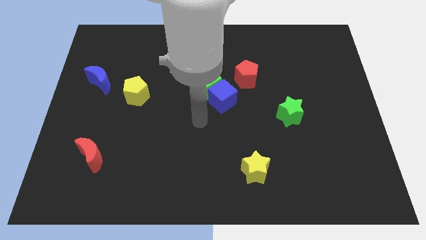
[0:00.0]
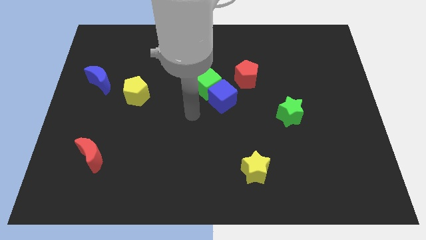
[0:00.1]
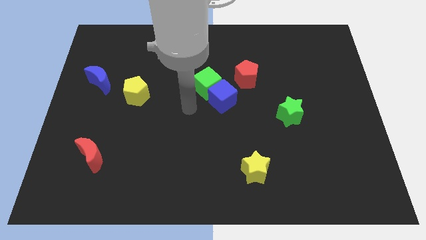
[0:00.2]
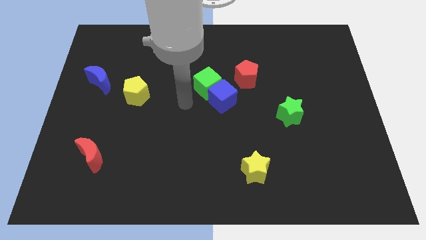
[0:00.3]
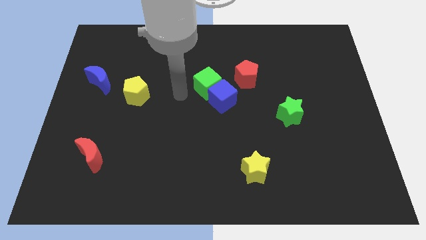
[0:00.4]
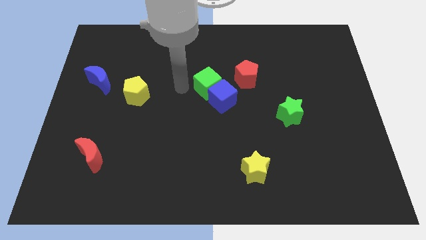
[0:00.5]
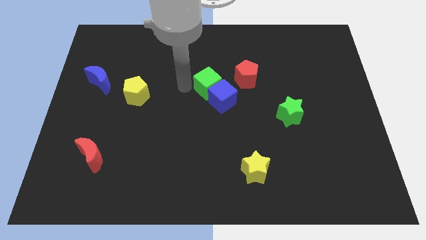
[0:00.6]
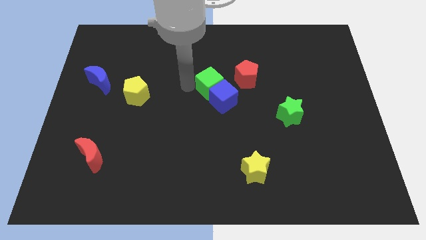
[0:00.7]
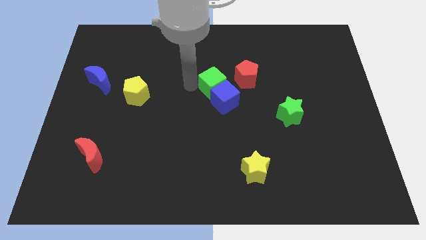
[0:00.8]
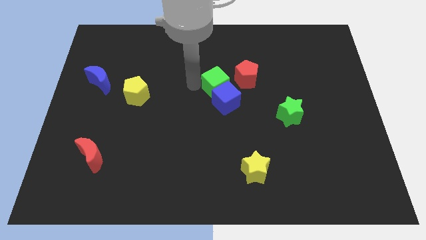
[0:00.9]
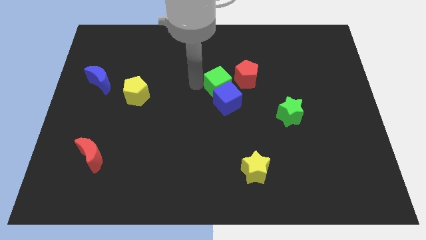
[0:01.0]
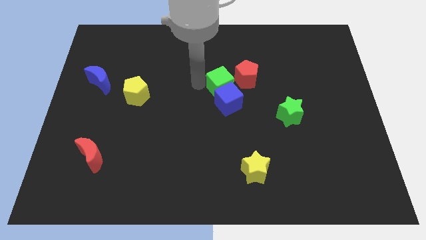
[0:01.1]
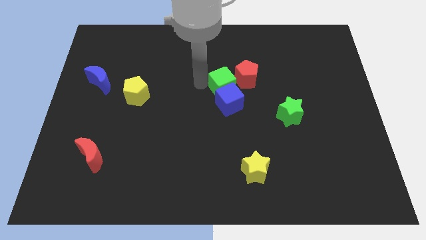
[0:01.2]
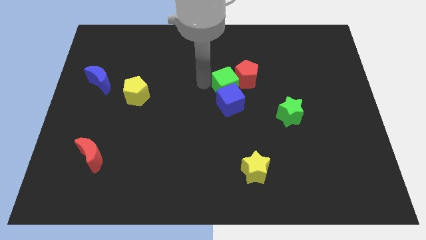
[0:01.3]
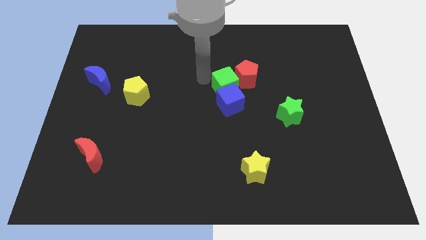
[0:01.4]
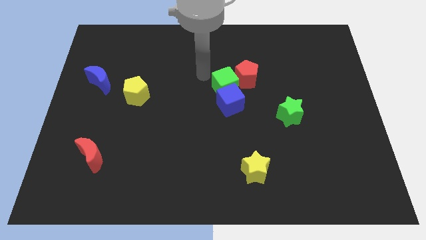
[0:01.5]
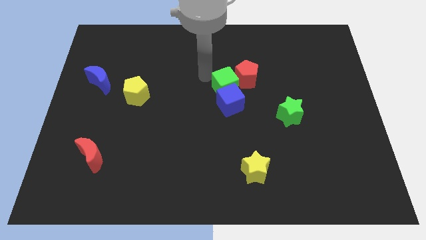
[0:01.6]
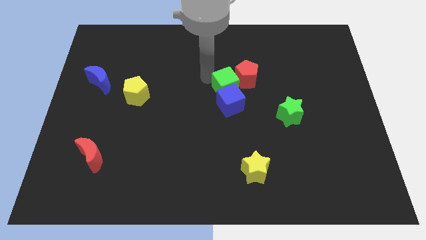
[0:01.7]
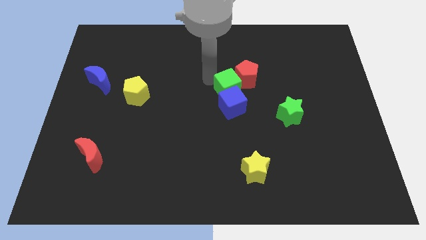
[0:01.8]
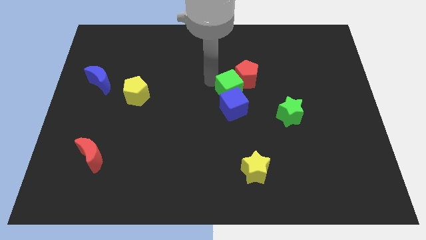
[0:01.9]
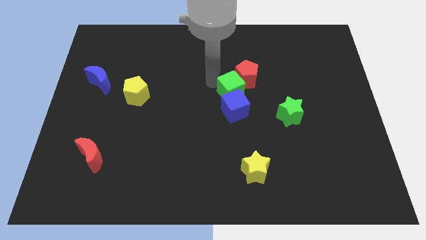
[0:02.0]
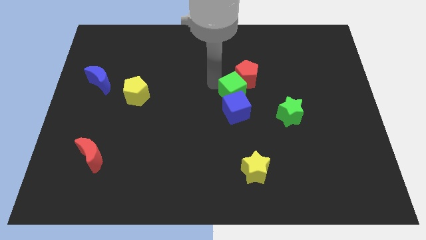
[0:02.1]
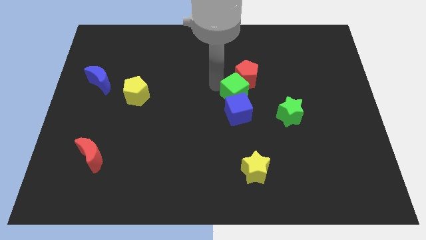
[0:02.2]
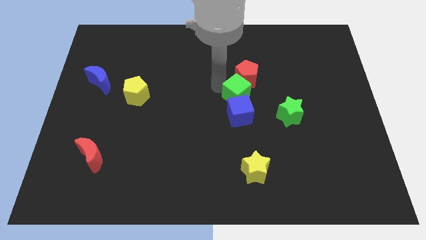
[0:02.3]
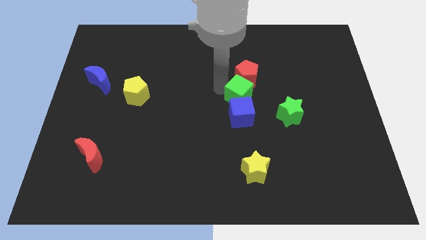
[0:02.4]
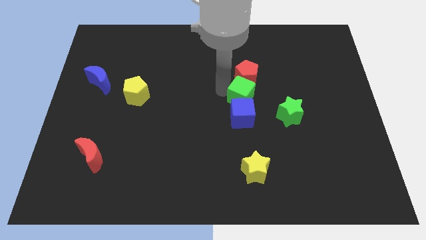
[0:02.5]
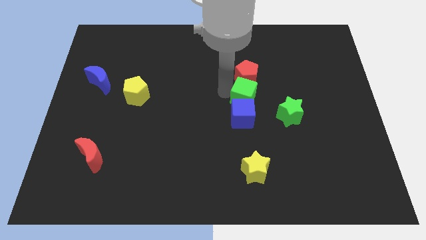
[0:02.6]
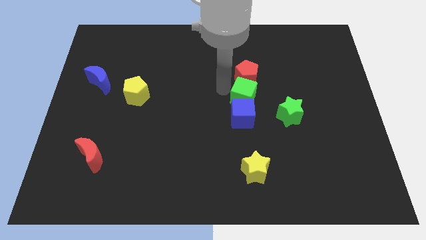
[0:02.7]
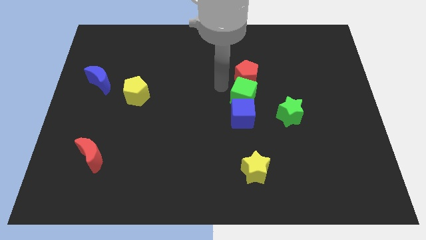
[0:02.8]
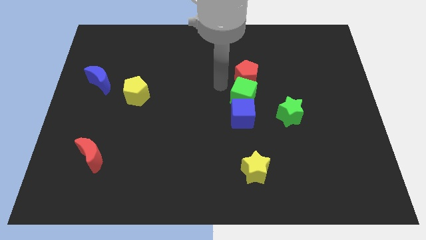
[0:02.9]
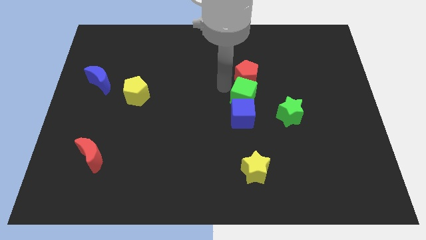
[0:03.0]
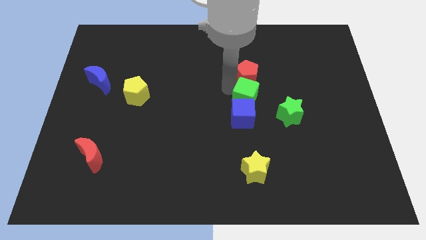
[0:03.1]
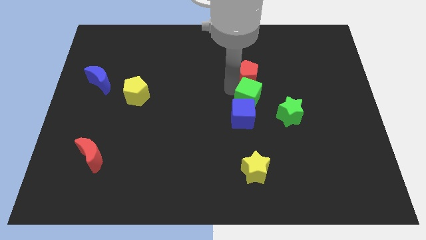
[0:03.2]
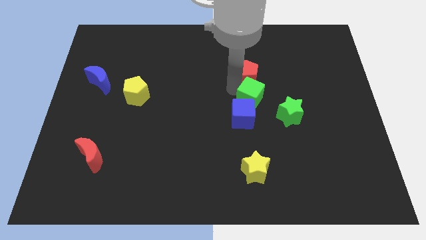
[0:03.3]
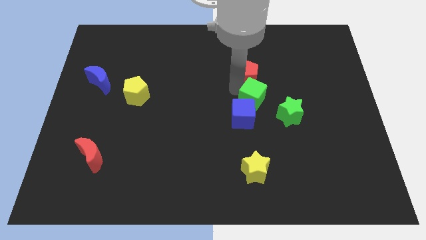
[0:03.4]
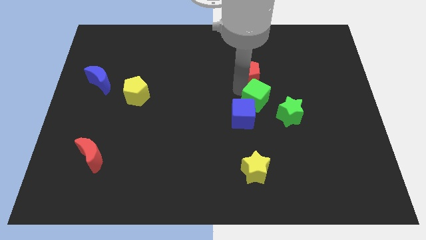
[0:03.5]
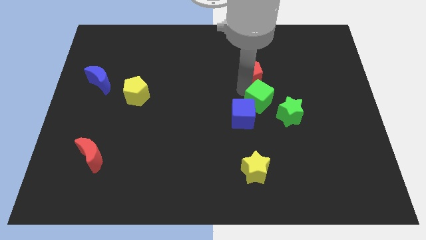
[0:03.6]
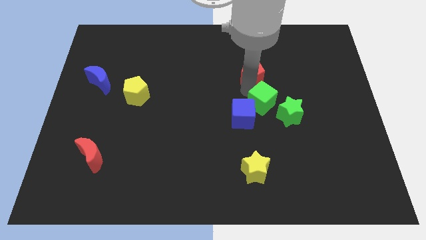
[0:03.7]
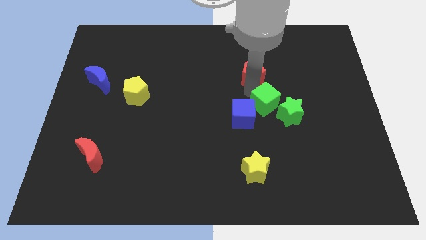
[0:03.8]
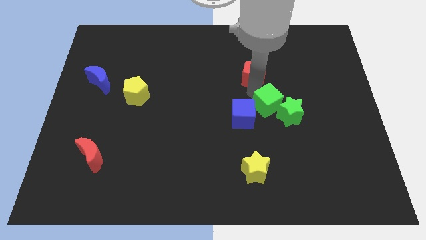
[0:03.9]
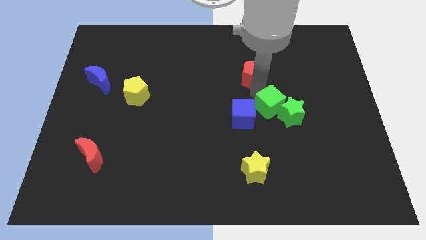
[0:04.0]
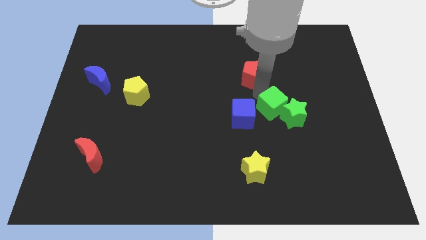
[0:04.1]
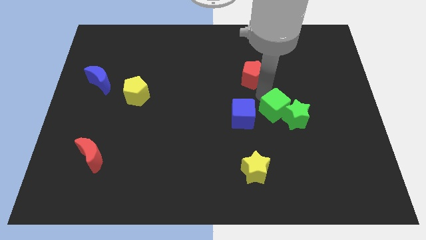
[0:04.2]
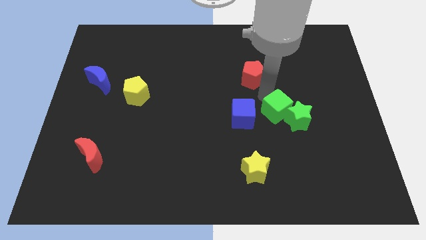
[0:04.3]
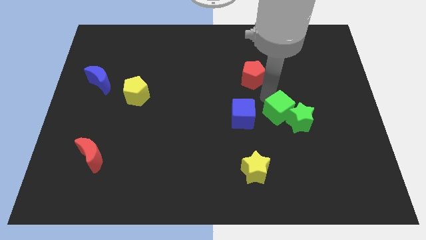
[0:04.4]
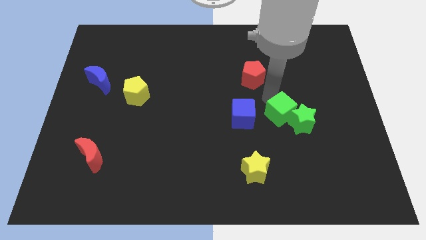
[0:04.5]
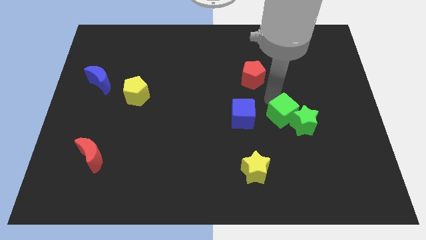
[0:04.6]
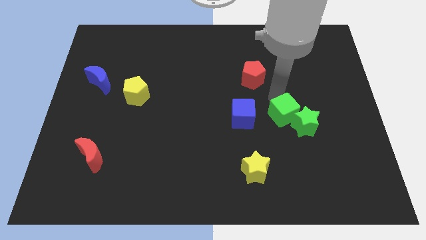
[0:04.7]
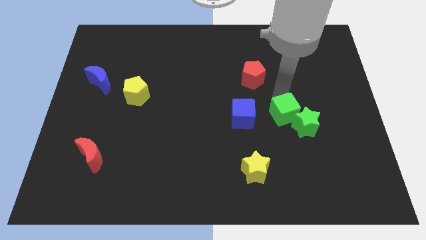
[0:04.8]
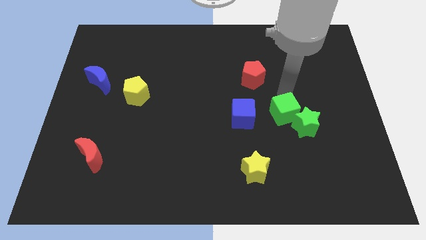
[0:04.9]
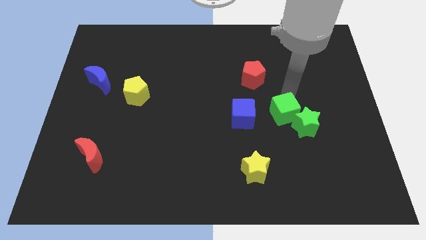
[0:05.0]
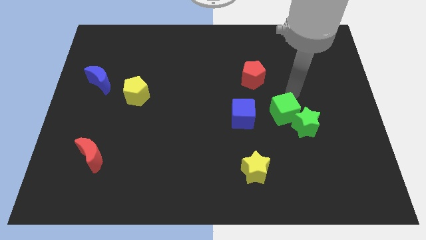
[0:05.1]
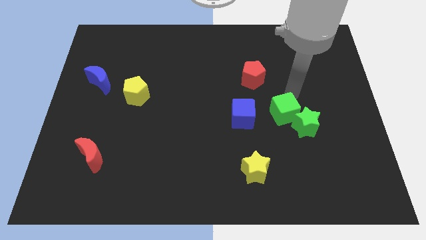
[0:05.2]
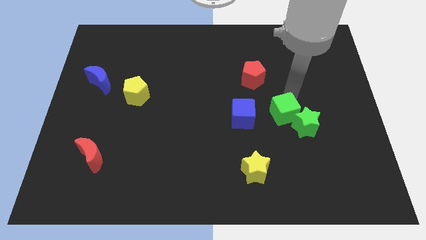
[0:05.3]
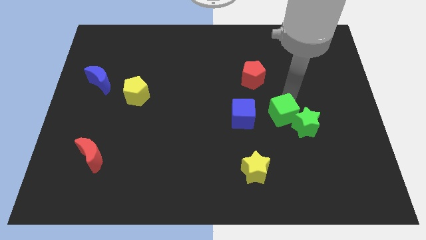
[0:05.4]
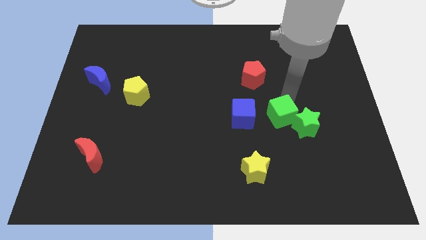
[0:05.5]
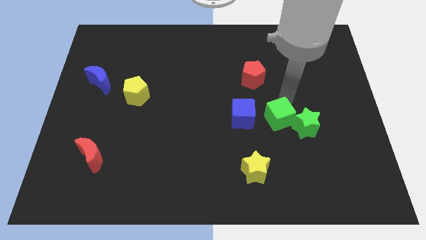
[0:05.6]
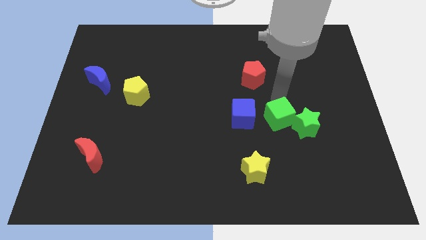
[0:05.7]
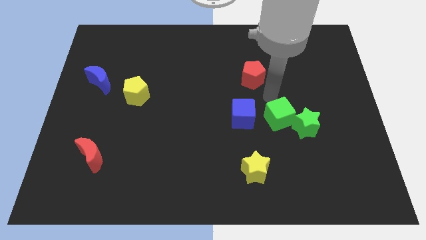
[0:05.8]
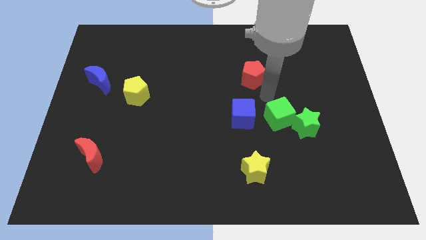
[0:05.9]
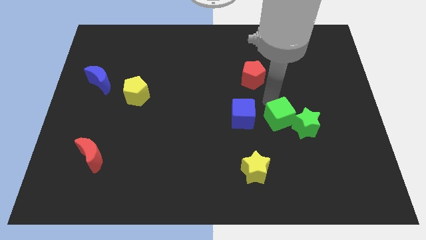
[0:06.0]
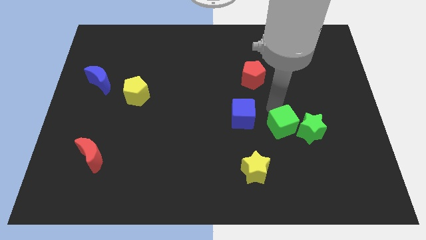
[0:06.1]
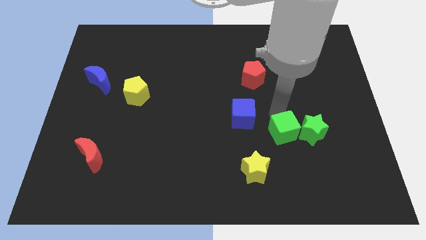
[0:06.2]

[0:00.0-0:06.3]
slide the green cube down and then to the right

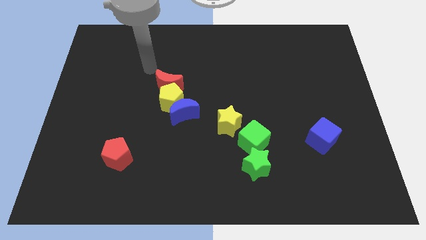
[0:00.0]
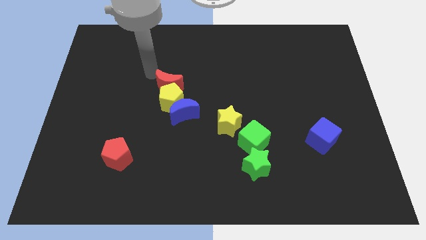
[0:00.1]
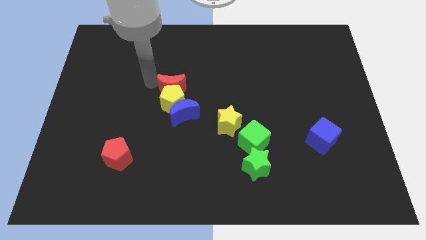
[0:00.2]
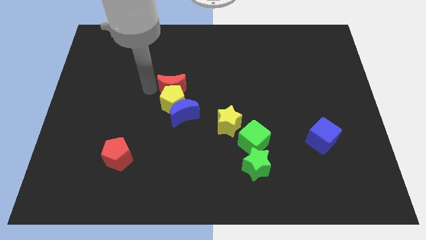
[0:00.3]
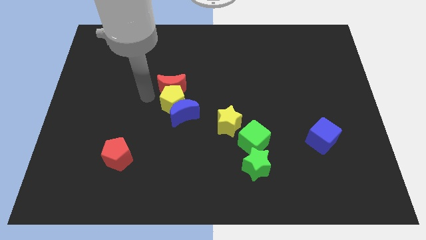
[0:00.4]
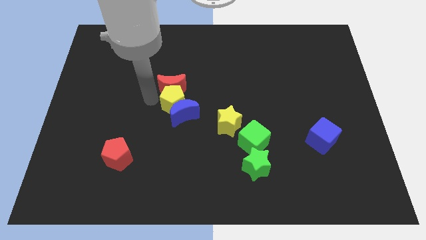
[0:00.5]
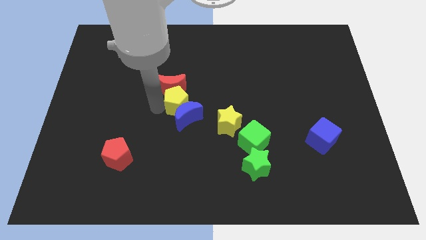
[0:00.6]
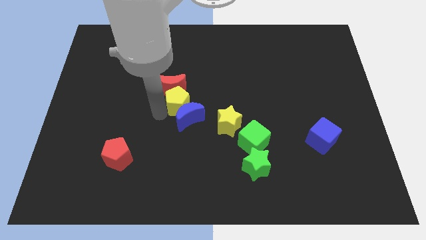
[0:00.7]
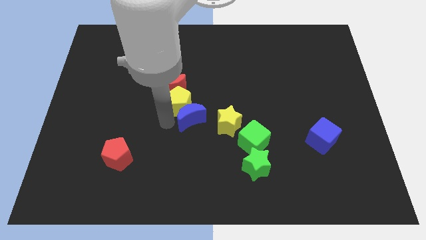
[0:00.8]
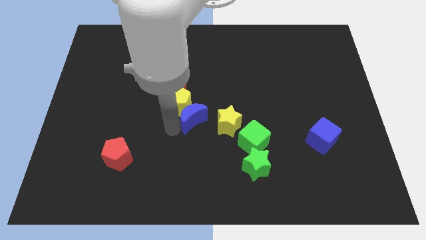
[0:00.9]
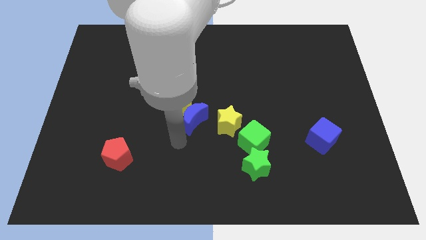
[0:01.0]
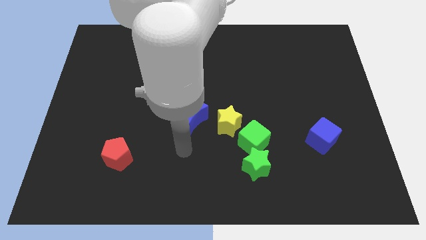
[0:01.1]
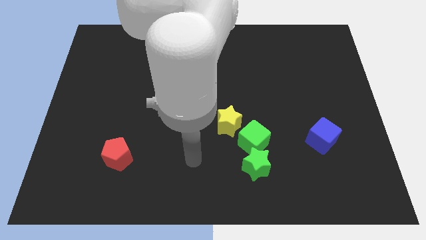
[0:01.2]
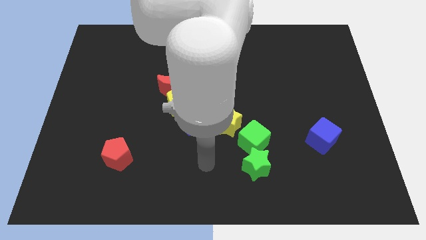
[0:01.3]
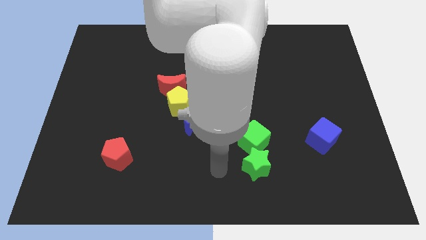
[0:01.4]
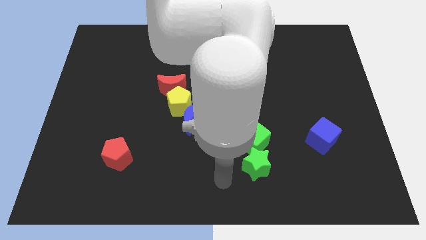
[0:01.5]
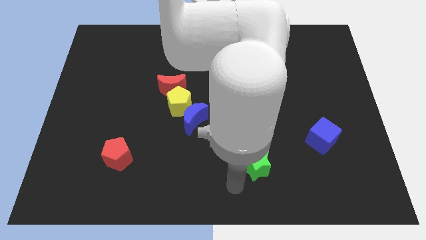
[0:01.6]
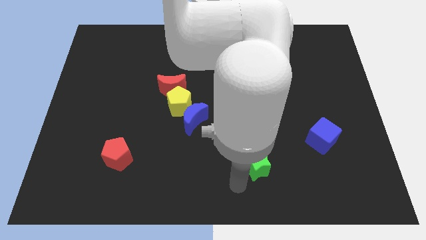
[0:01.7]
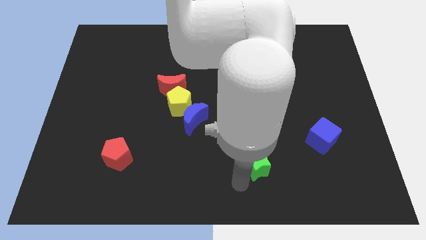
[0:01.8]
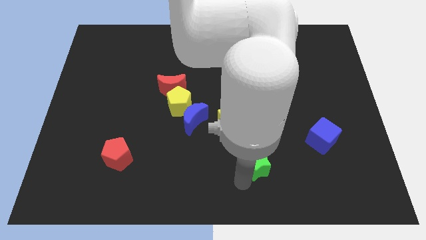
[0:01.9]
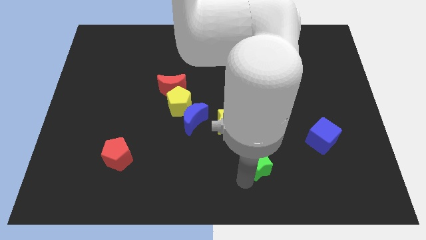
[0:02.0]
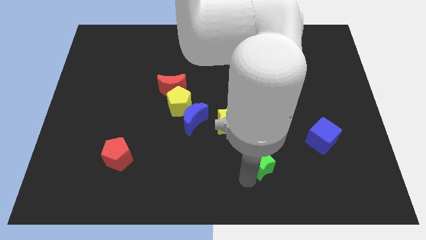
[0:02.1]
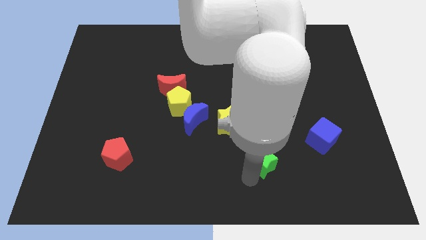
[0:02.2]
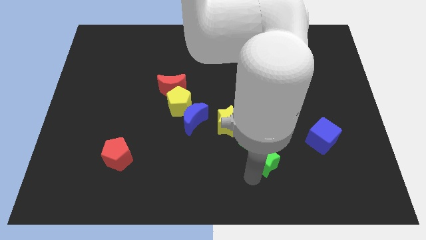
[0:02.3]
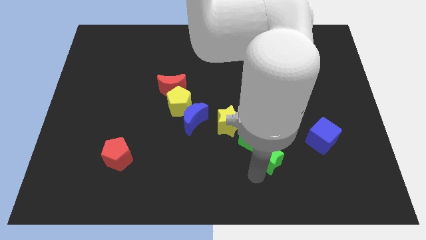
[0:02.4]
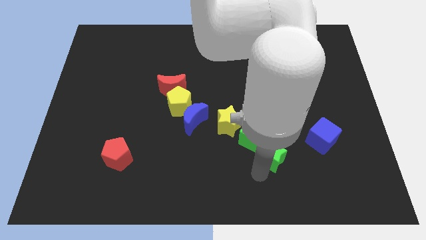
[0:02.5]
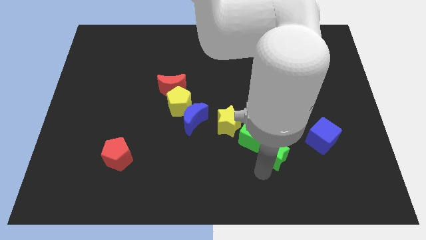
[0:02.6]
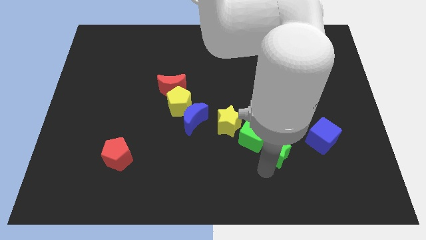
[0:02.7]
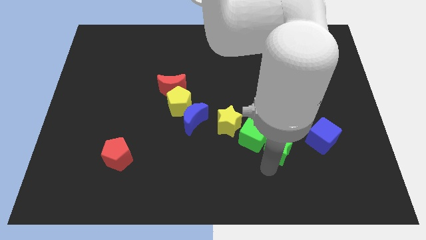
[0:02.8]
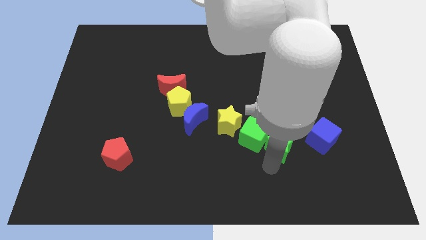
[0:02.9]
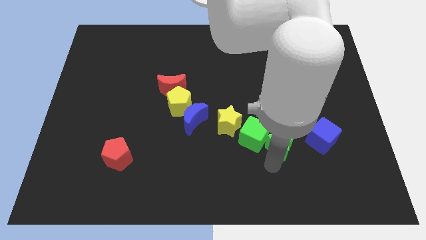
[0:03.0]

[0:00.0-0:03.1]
push the green star a bit upwards and right diagonally
